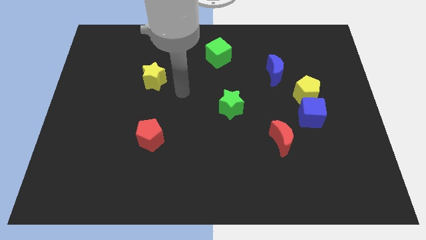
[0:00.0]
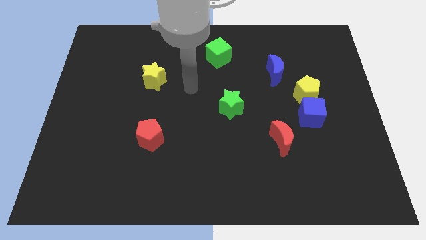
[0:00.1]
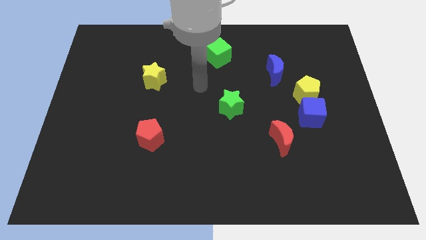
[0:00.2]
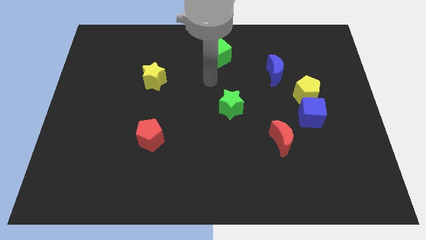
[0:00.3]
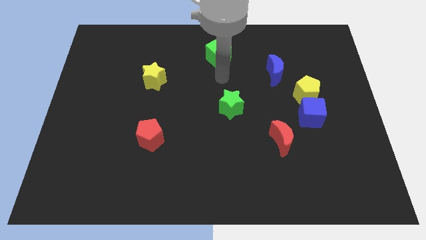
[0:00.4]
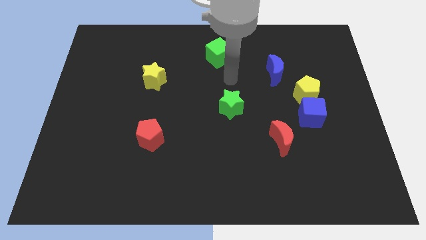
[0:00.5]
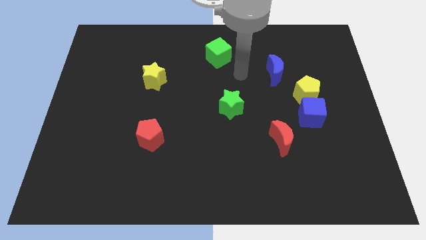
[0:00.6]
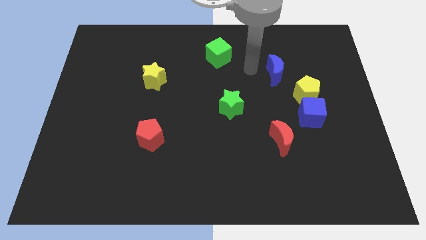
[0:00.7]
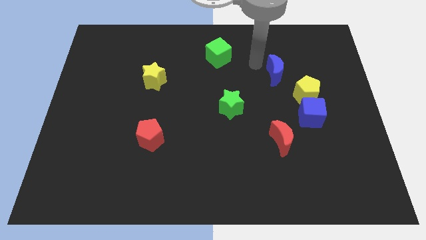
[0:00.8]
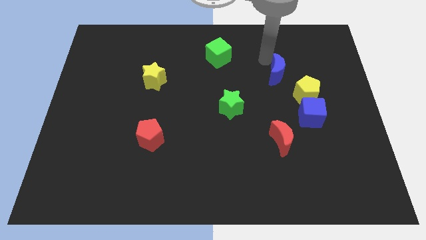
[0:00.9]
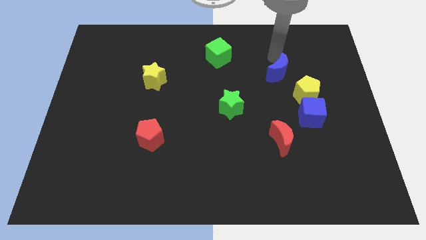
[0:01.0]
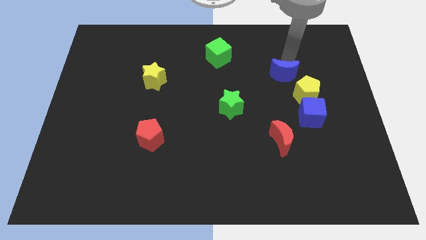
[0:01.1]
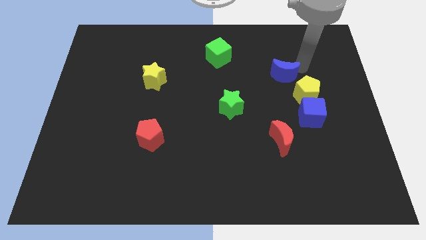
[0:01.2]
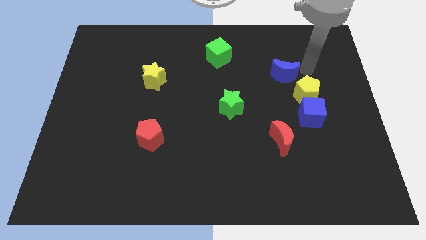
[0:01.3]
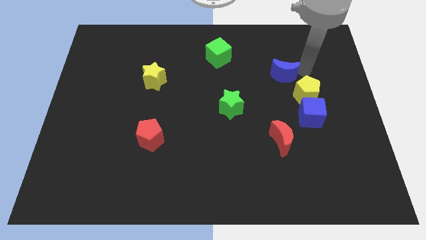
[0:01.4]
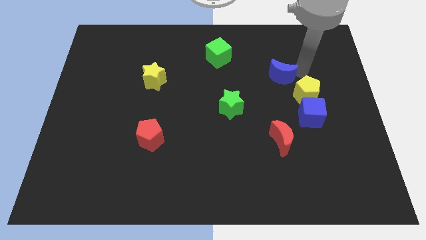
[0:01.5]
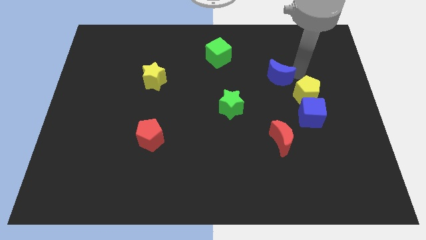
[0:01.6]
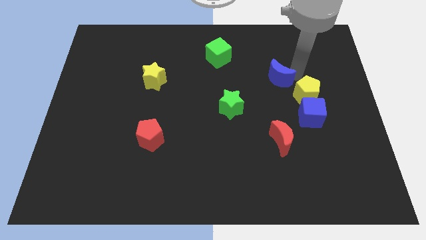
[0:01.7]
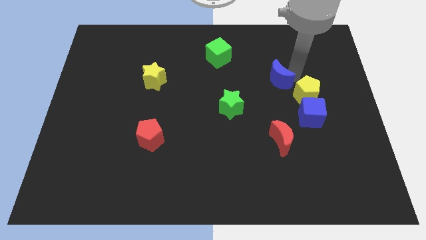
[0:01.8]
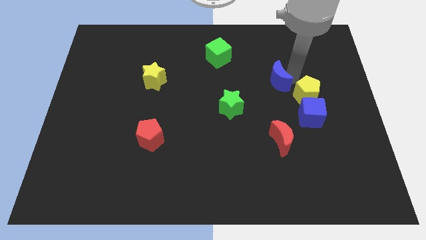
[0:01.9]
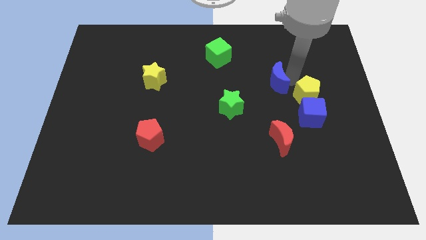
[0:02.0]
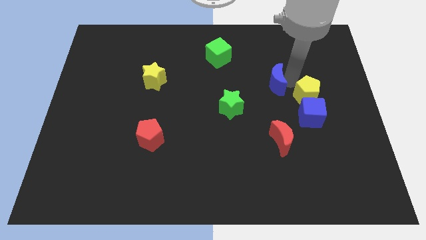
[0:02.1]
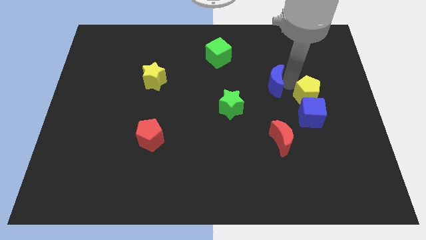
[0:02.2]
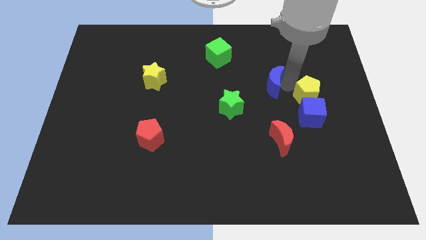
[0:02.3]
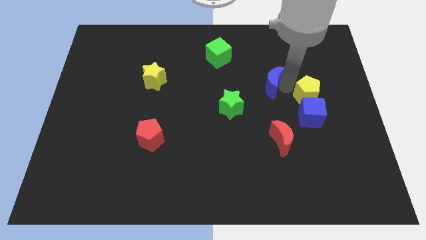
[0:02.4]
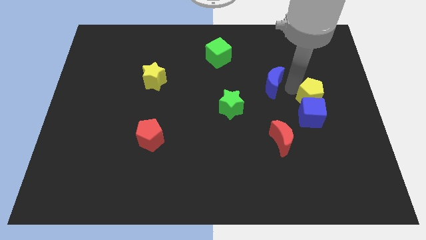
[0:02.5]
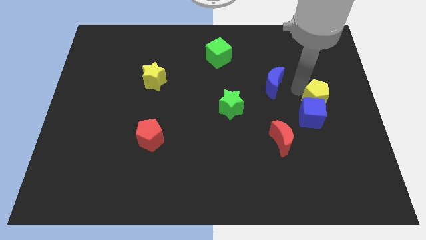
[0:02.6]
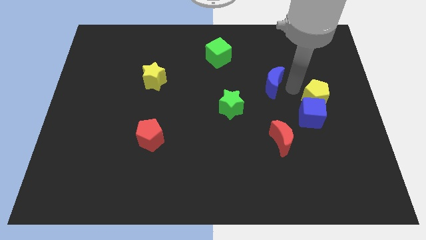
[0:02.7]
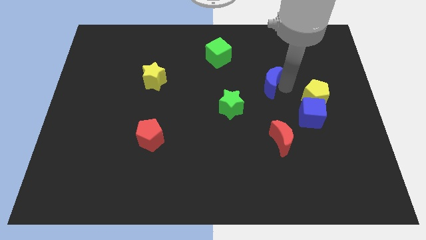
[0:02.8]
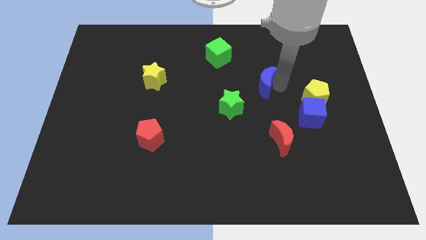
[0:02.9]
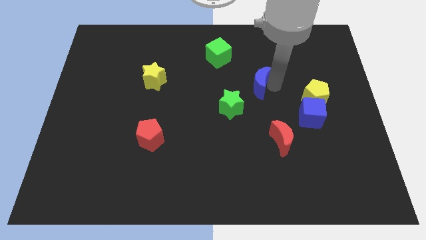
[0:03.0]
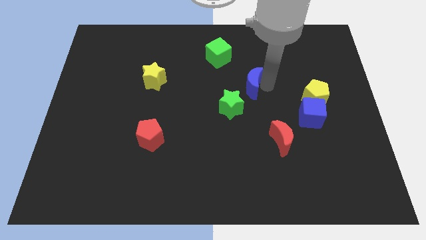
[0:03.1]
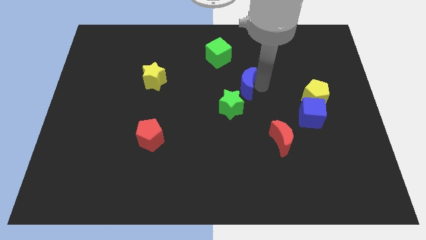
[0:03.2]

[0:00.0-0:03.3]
push the blue moon a little bit left

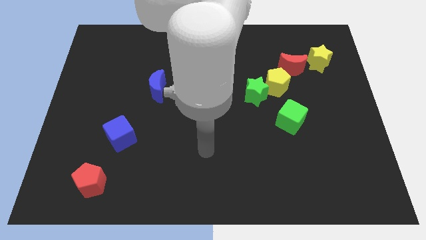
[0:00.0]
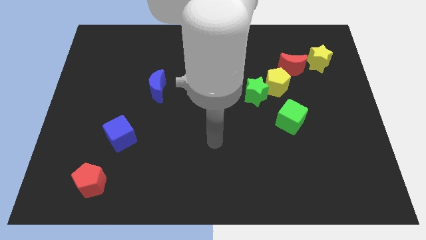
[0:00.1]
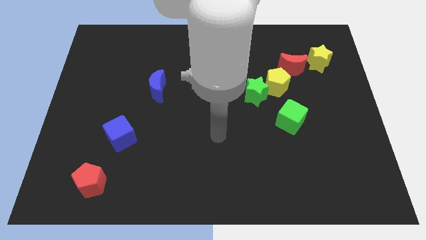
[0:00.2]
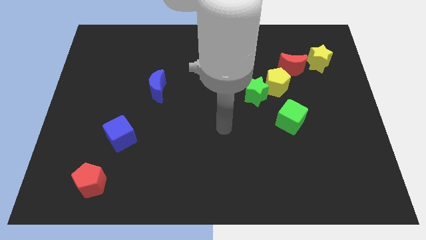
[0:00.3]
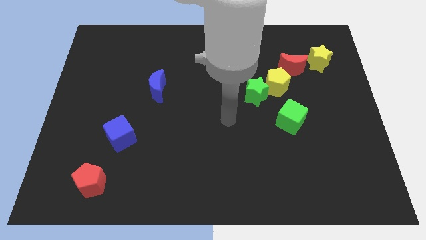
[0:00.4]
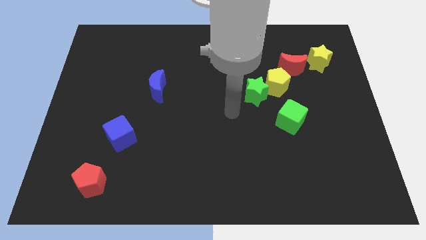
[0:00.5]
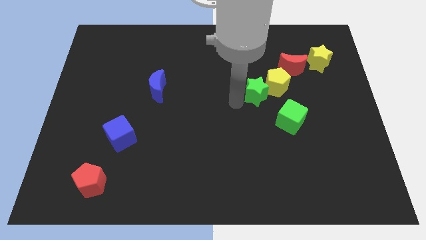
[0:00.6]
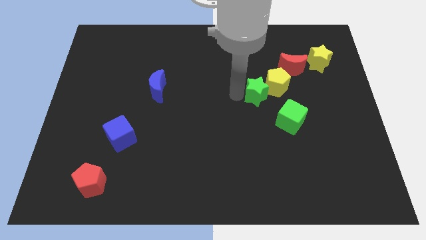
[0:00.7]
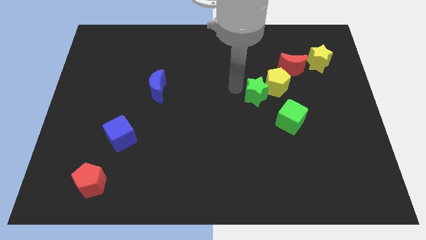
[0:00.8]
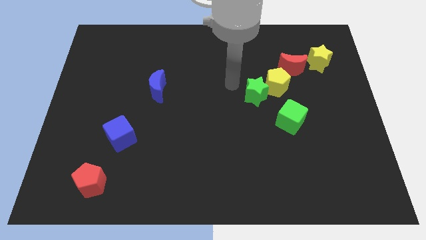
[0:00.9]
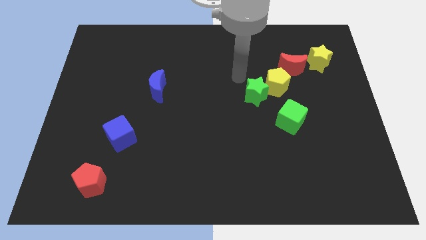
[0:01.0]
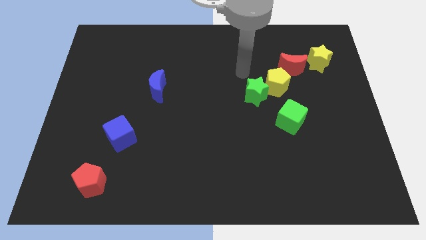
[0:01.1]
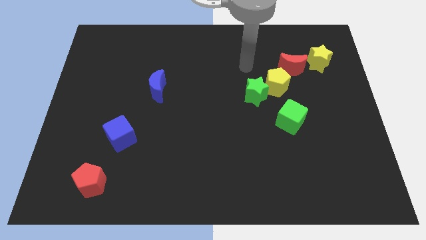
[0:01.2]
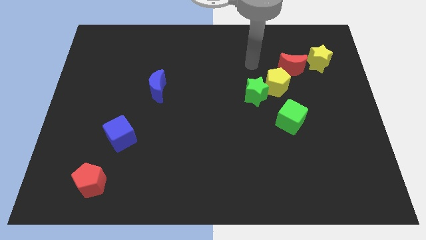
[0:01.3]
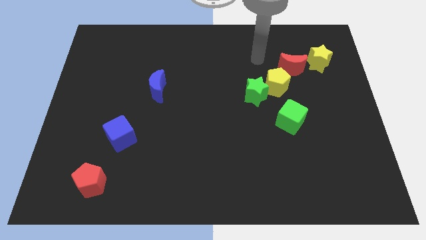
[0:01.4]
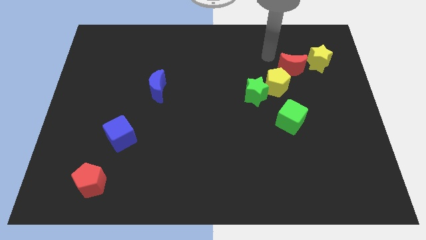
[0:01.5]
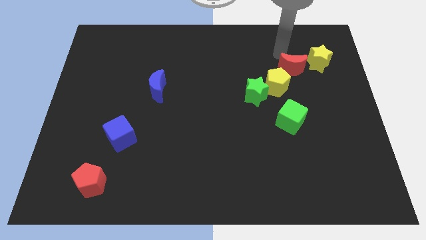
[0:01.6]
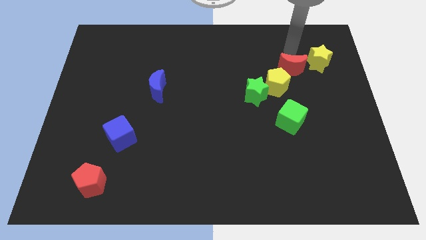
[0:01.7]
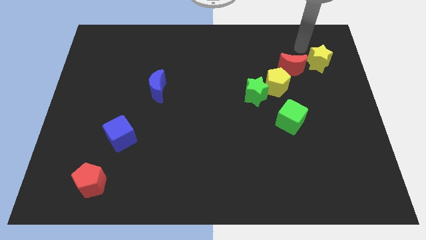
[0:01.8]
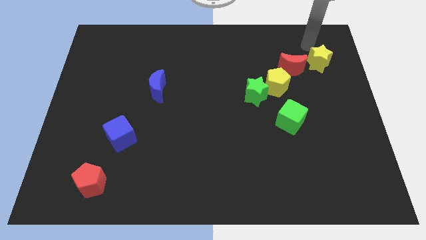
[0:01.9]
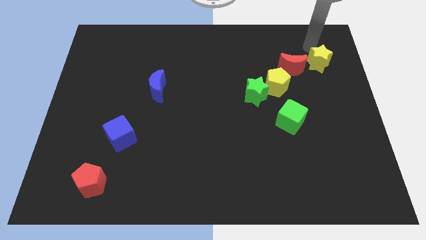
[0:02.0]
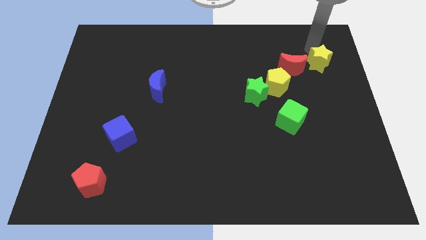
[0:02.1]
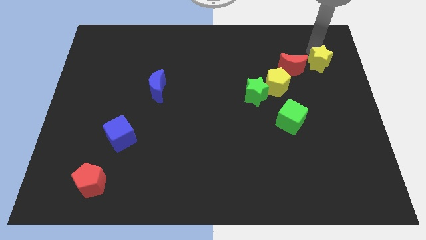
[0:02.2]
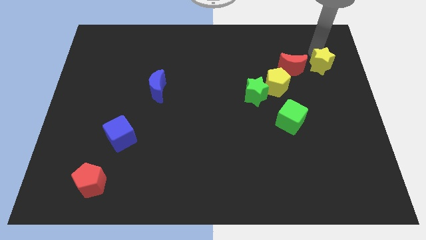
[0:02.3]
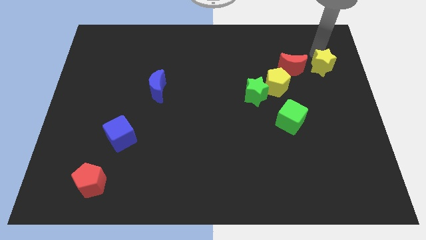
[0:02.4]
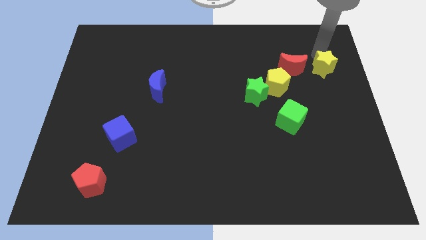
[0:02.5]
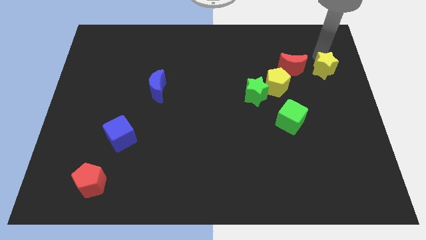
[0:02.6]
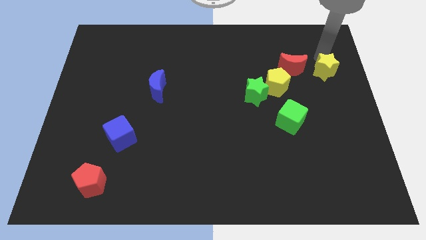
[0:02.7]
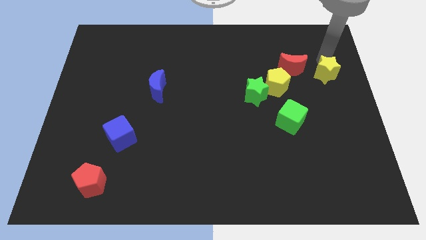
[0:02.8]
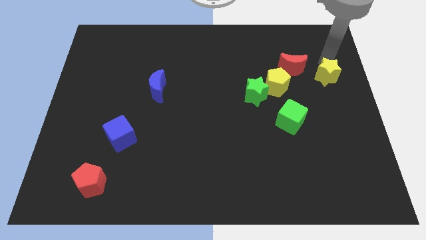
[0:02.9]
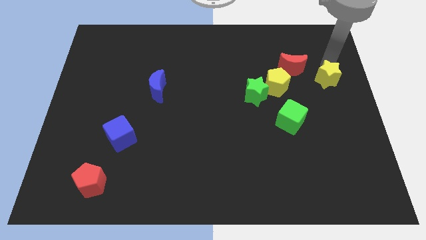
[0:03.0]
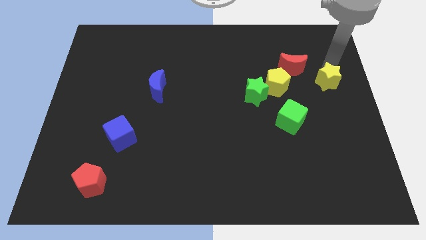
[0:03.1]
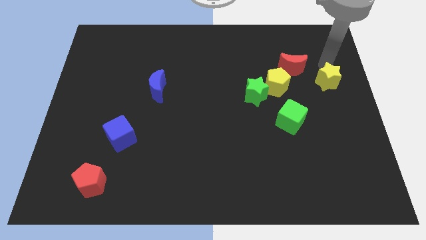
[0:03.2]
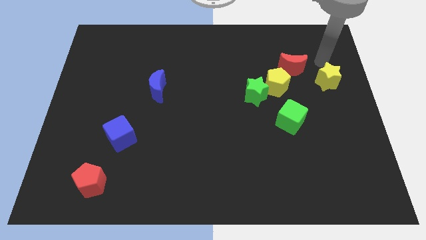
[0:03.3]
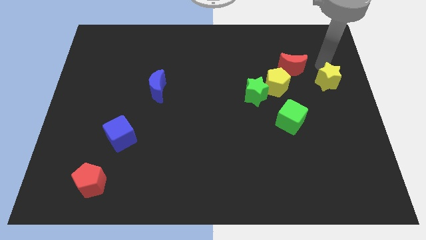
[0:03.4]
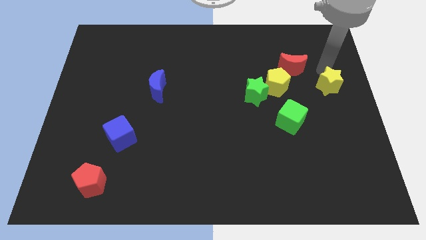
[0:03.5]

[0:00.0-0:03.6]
slide the yellow star down a little bit

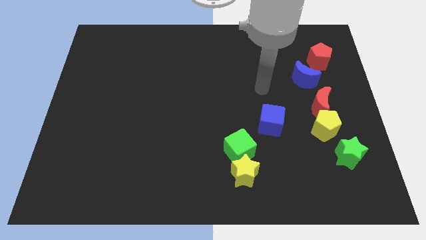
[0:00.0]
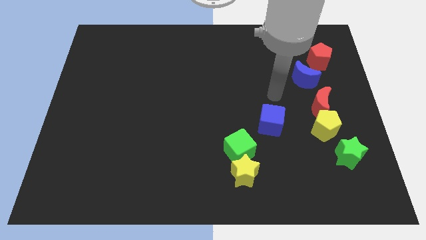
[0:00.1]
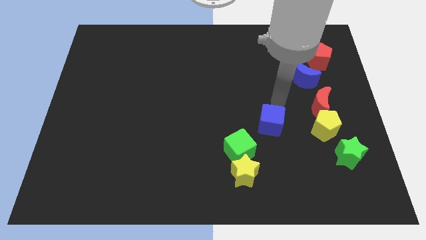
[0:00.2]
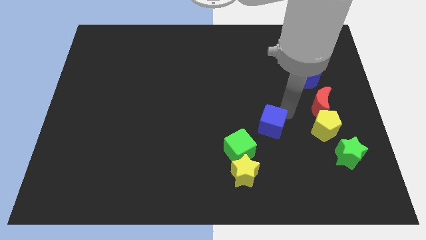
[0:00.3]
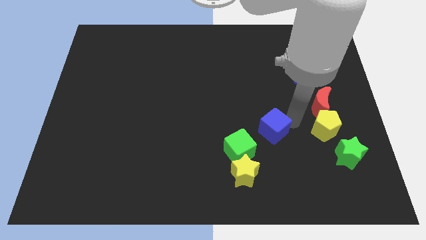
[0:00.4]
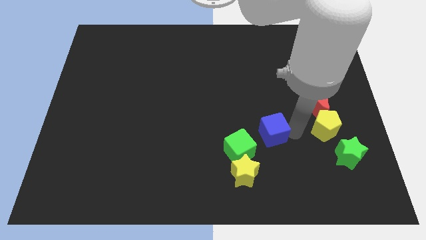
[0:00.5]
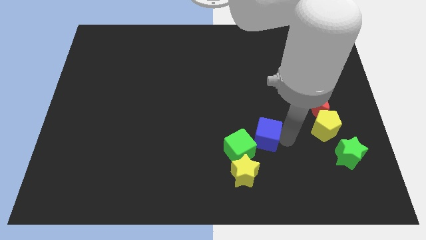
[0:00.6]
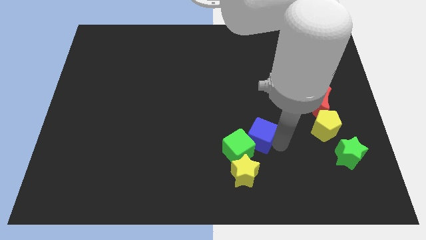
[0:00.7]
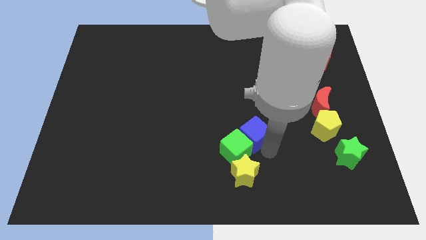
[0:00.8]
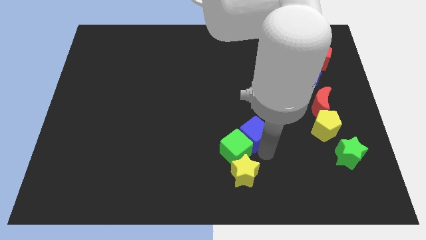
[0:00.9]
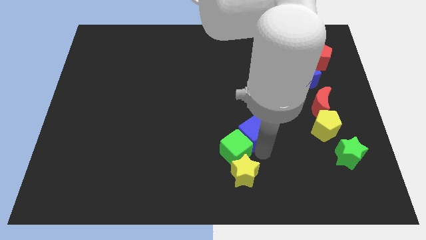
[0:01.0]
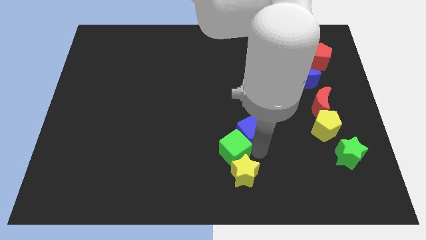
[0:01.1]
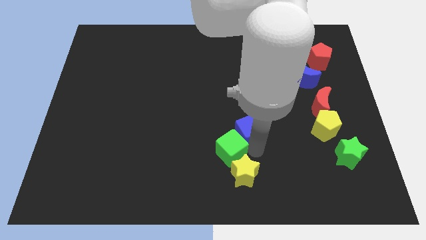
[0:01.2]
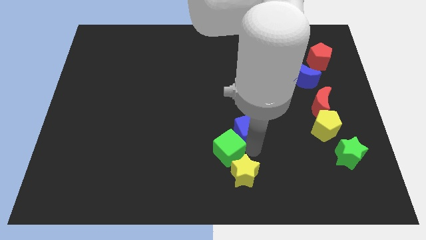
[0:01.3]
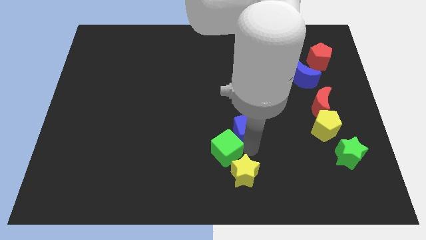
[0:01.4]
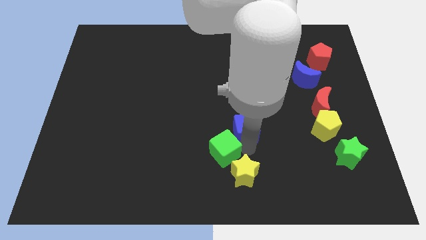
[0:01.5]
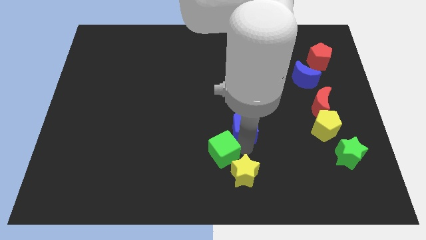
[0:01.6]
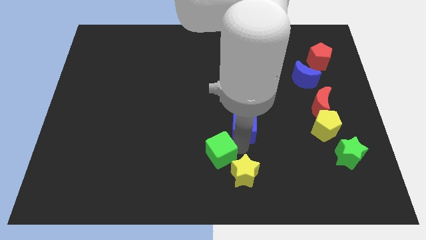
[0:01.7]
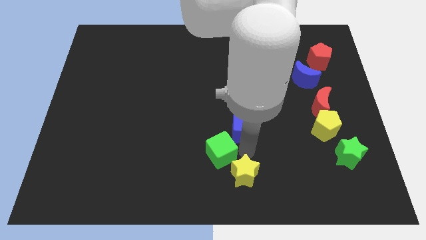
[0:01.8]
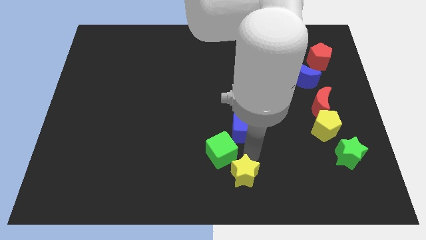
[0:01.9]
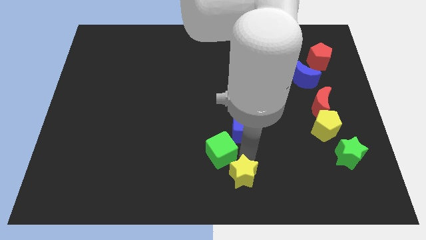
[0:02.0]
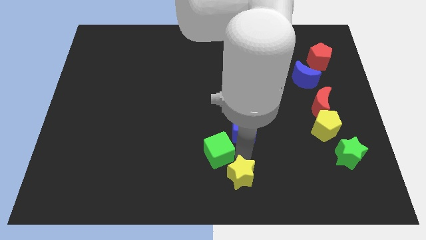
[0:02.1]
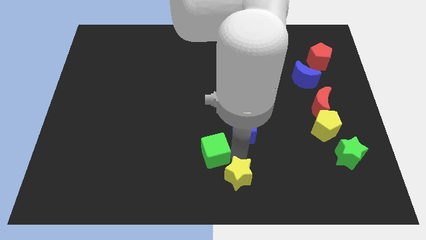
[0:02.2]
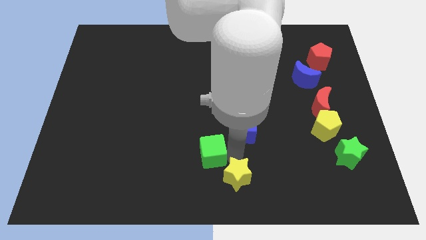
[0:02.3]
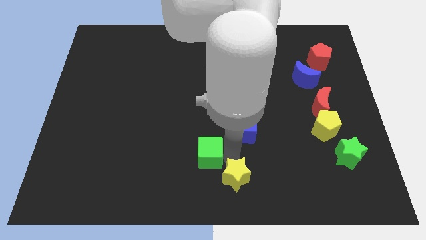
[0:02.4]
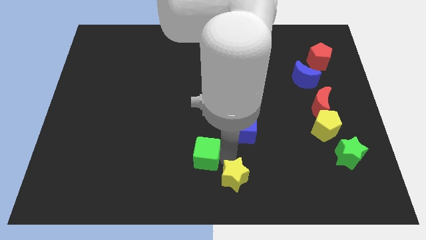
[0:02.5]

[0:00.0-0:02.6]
slide the green cube slightly left
